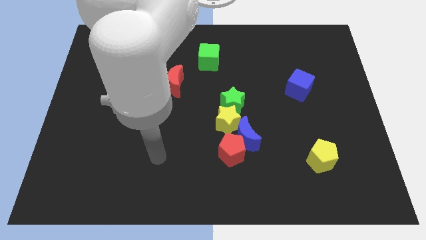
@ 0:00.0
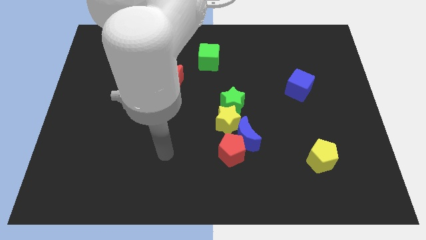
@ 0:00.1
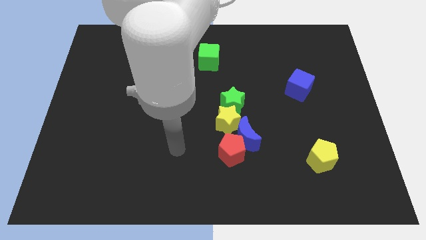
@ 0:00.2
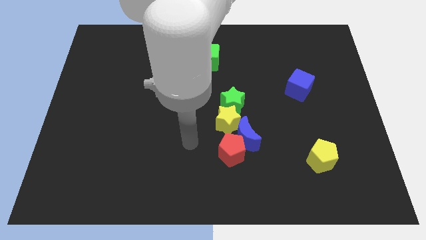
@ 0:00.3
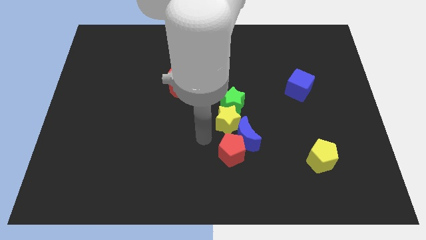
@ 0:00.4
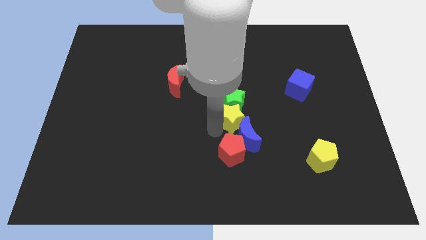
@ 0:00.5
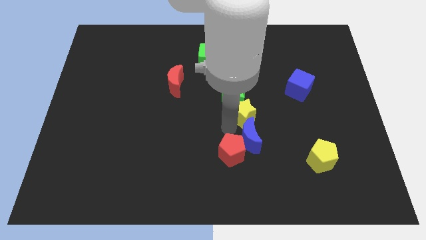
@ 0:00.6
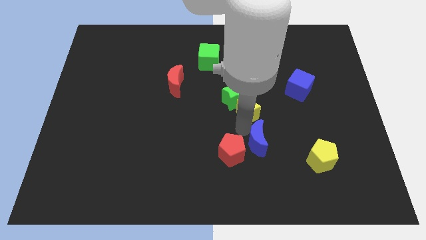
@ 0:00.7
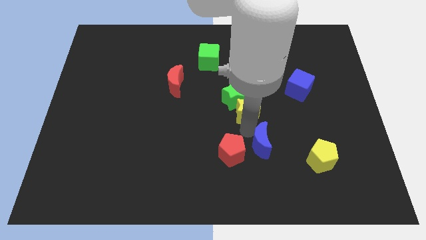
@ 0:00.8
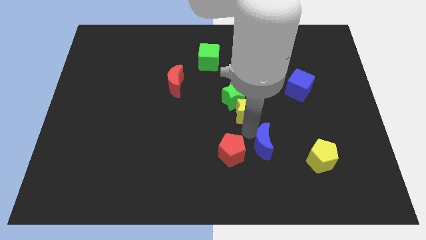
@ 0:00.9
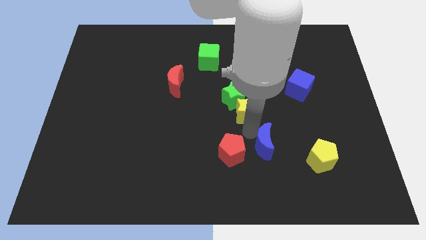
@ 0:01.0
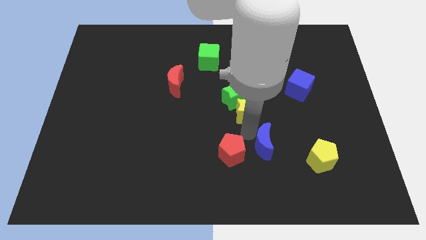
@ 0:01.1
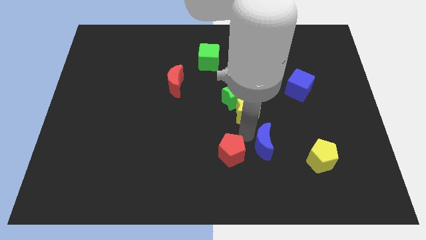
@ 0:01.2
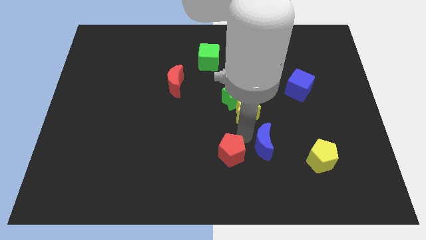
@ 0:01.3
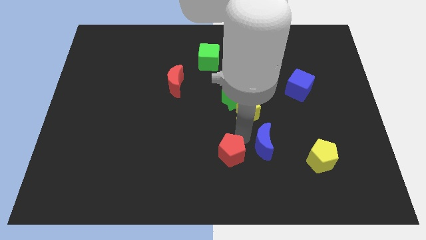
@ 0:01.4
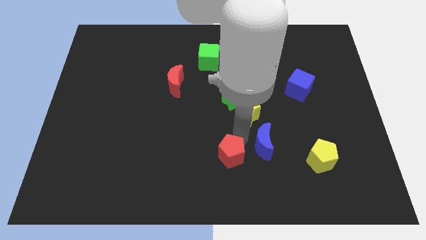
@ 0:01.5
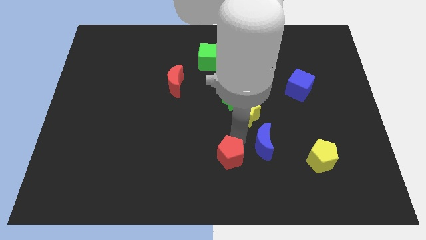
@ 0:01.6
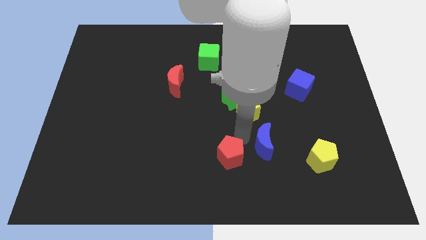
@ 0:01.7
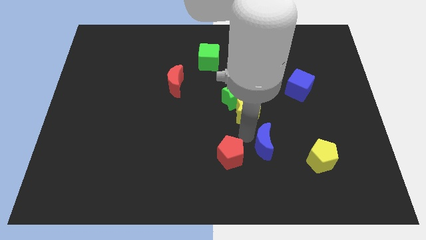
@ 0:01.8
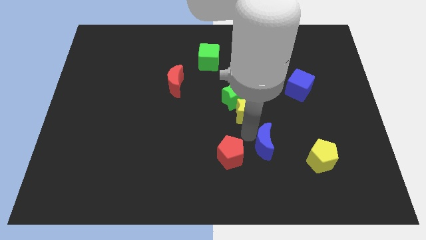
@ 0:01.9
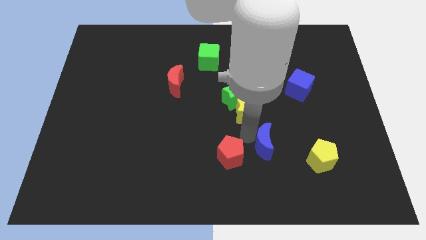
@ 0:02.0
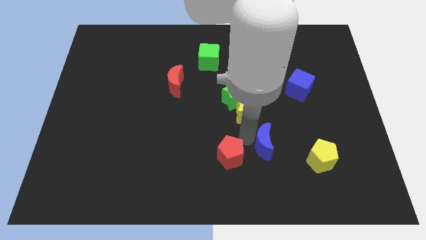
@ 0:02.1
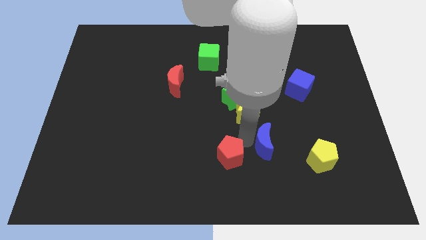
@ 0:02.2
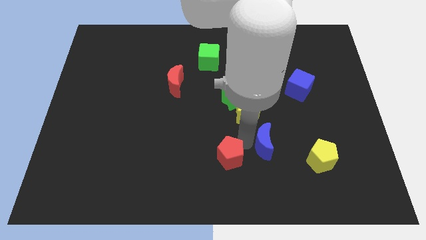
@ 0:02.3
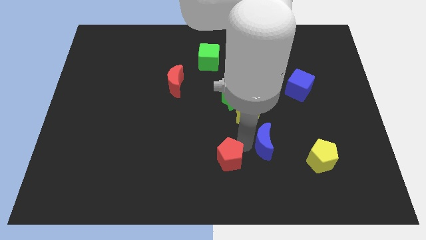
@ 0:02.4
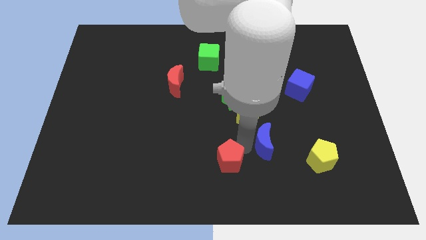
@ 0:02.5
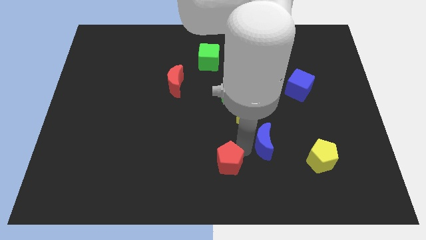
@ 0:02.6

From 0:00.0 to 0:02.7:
separate the red pentagon from the blue moon and yellow star

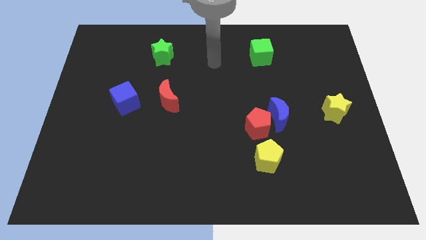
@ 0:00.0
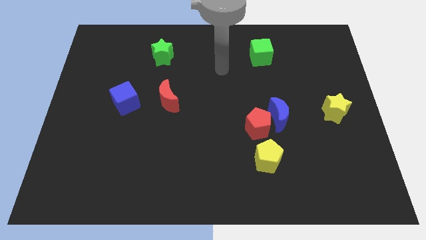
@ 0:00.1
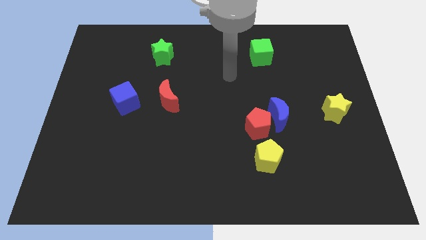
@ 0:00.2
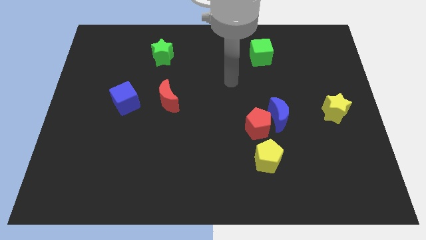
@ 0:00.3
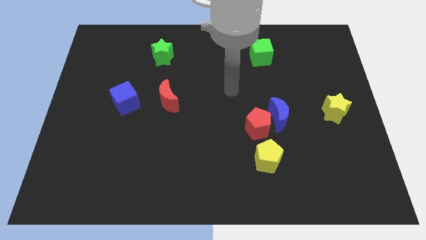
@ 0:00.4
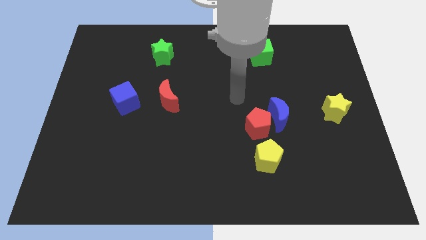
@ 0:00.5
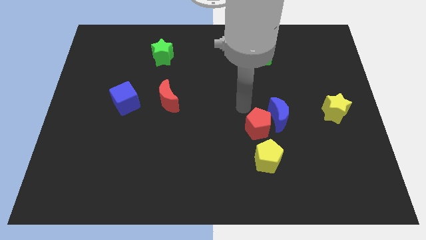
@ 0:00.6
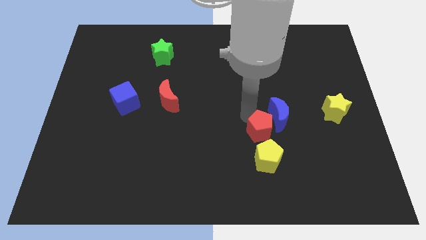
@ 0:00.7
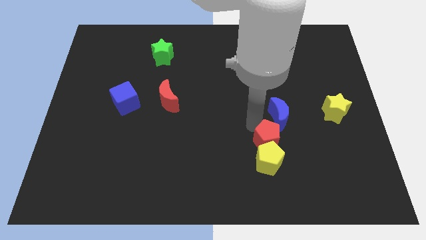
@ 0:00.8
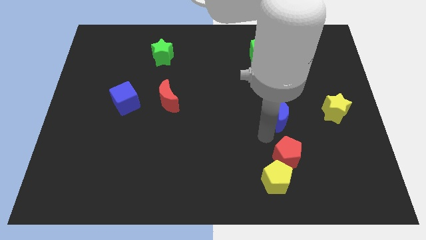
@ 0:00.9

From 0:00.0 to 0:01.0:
separate the blue moon from the red pentagon

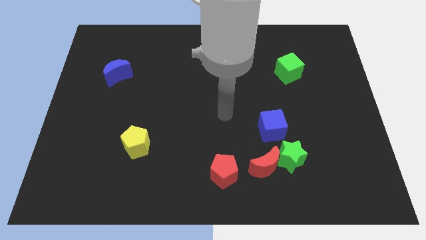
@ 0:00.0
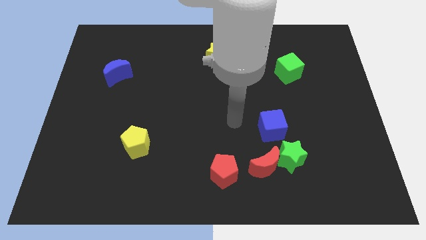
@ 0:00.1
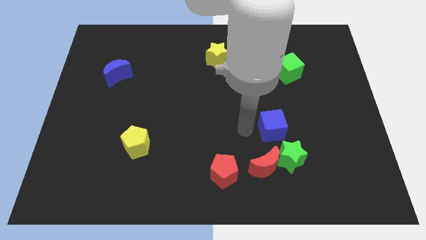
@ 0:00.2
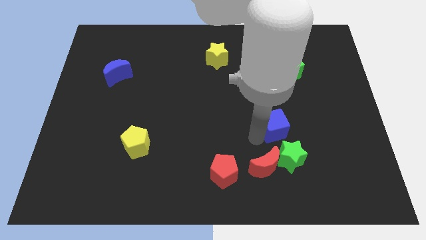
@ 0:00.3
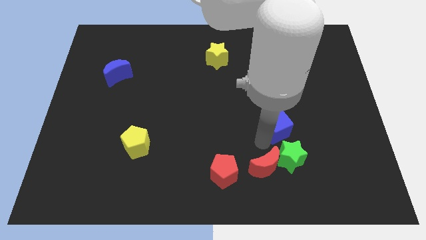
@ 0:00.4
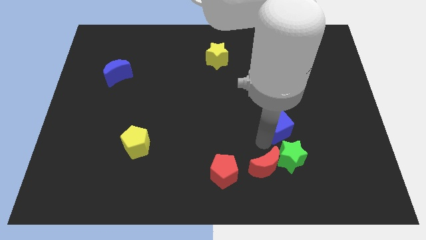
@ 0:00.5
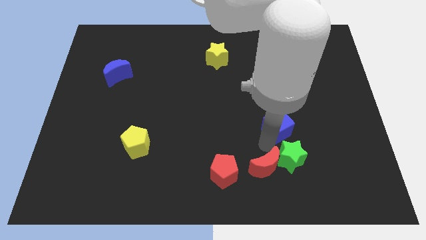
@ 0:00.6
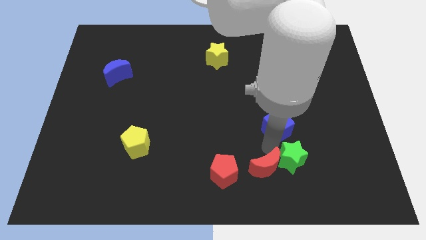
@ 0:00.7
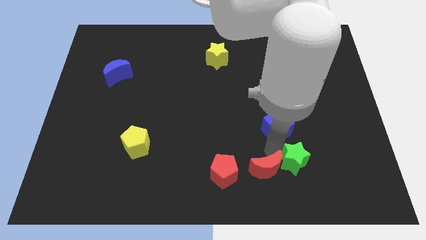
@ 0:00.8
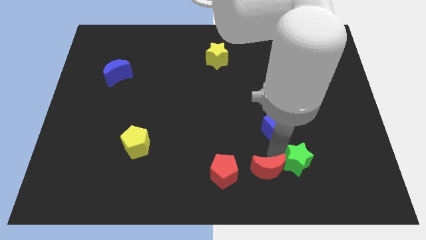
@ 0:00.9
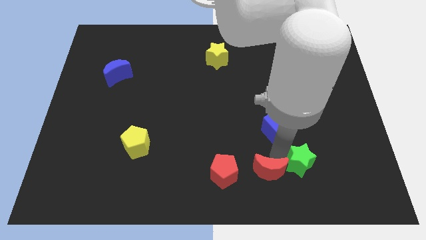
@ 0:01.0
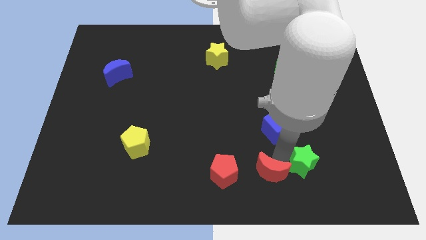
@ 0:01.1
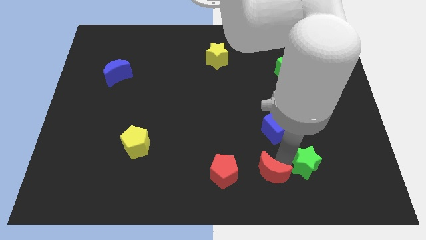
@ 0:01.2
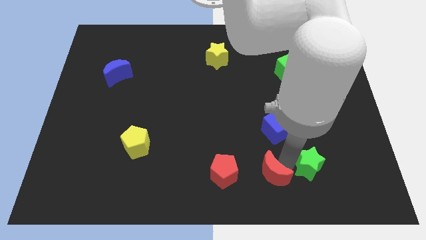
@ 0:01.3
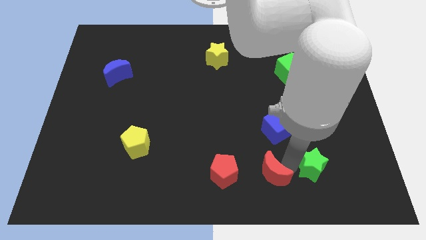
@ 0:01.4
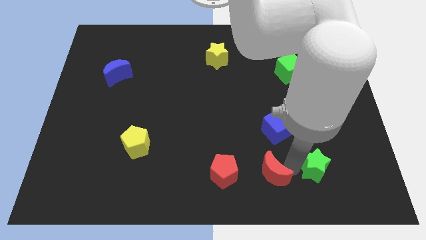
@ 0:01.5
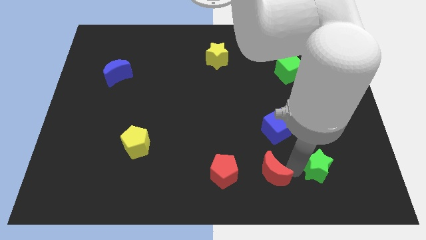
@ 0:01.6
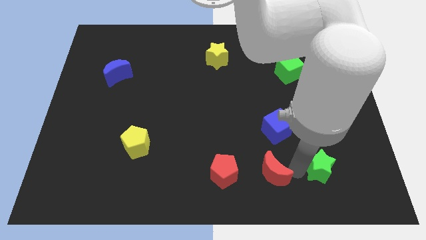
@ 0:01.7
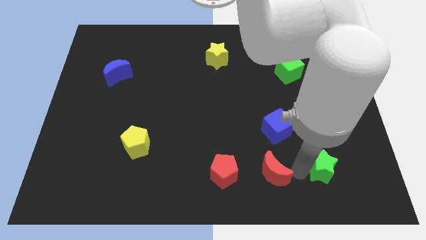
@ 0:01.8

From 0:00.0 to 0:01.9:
separate the green star from the red moon and blue cube

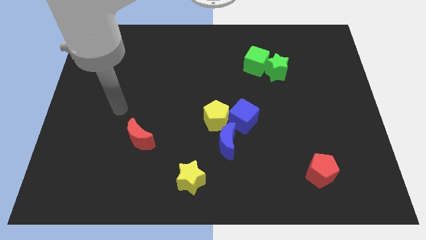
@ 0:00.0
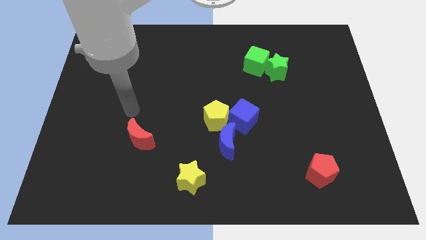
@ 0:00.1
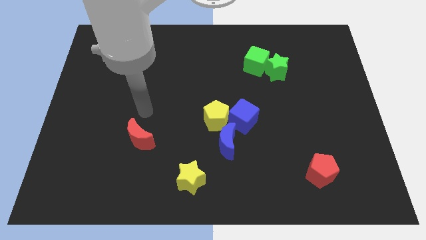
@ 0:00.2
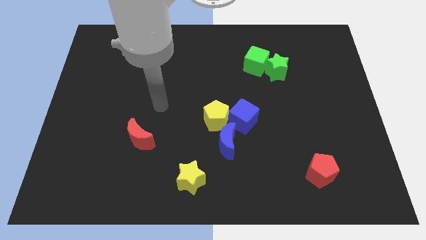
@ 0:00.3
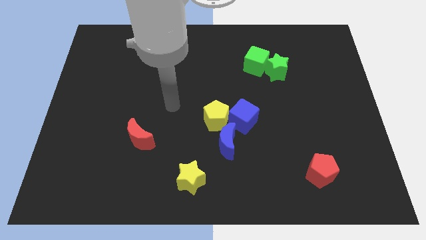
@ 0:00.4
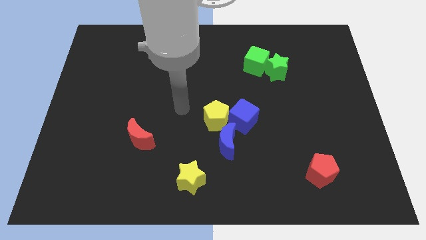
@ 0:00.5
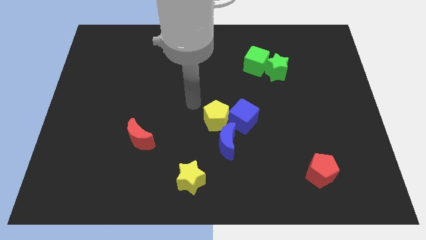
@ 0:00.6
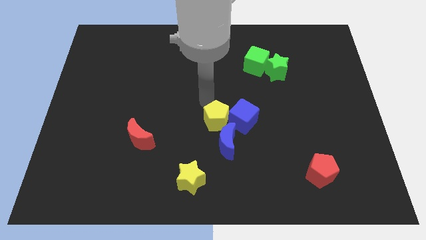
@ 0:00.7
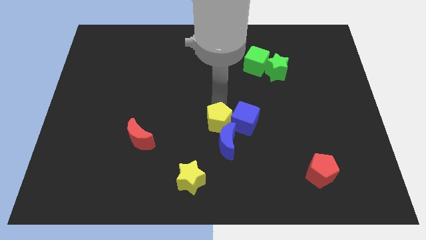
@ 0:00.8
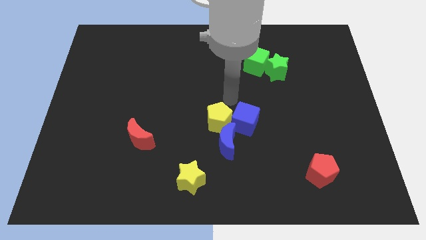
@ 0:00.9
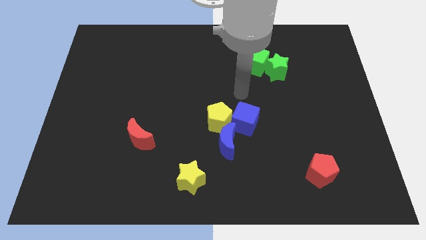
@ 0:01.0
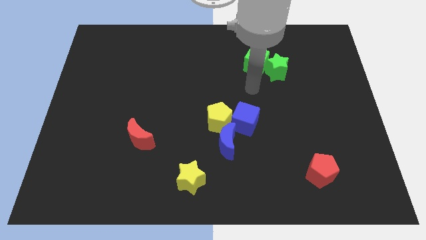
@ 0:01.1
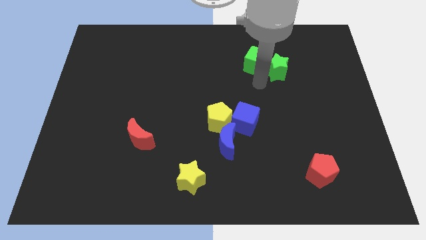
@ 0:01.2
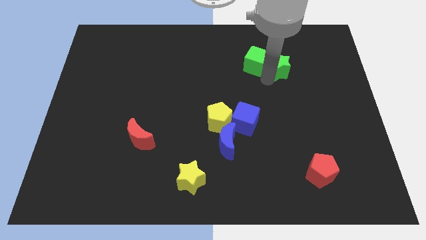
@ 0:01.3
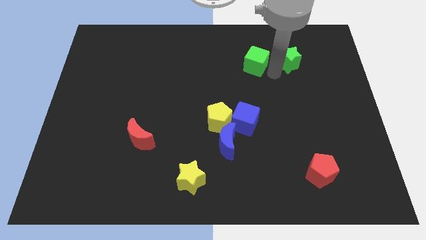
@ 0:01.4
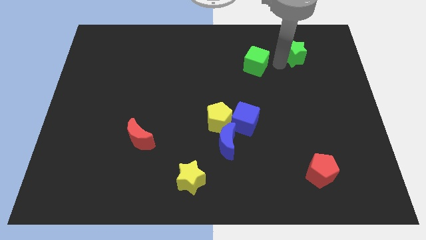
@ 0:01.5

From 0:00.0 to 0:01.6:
separate the green cube from the green star

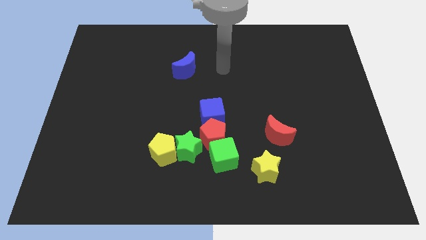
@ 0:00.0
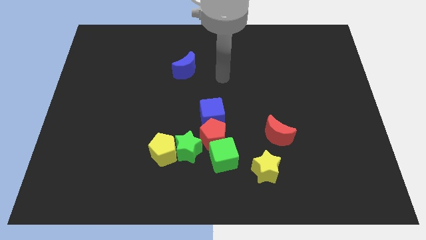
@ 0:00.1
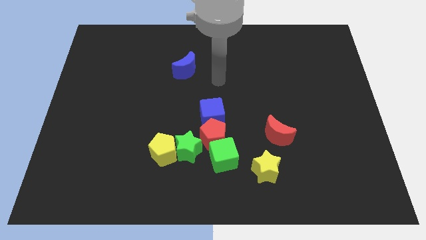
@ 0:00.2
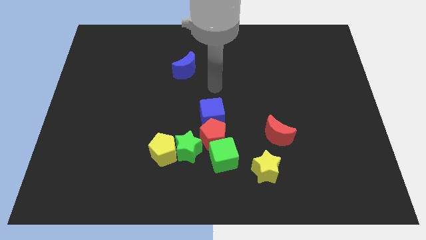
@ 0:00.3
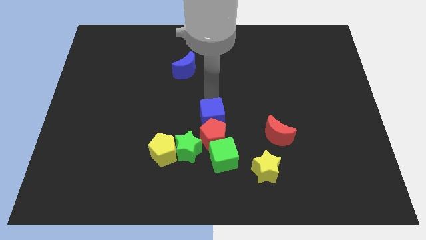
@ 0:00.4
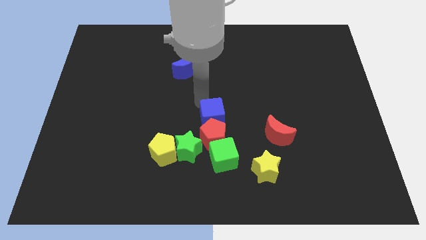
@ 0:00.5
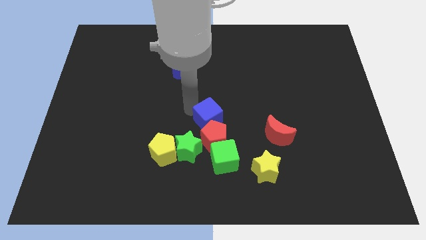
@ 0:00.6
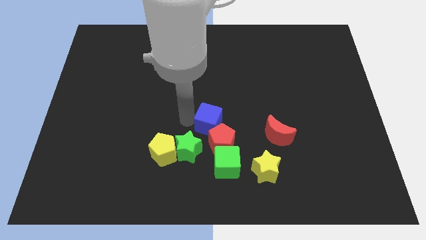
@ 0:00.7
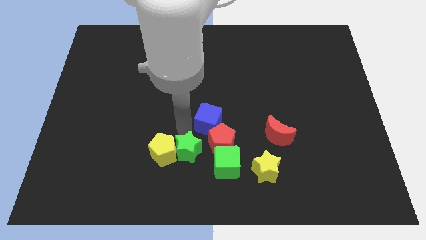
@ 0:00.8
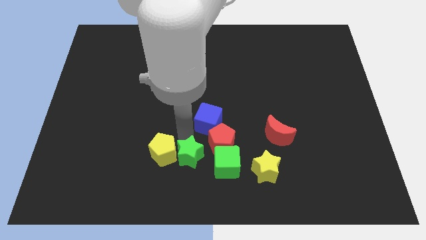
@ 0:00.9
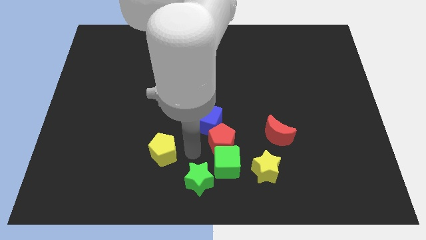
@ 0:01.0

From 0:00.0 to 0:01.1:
move the yellow pentagon away from the green star

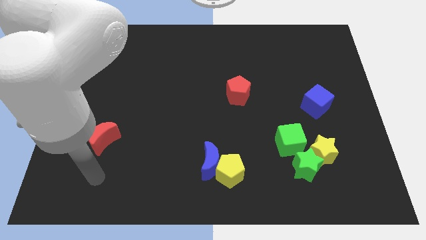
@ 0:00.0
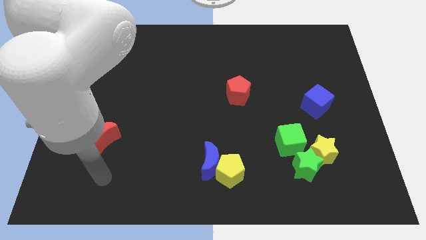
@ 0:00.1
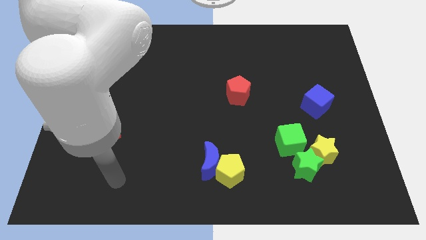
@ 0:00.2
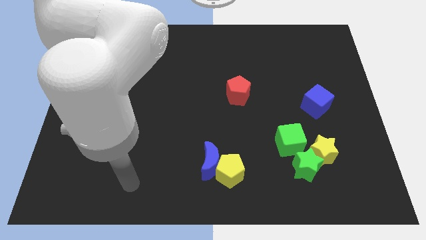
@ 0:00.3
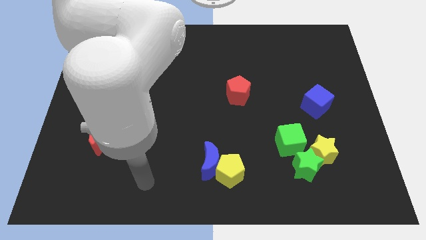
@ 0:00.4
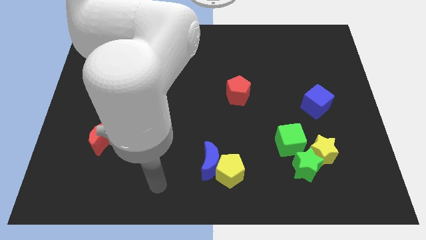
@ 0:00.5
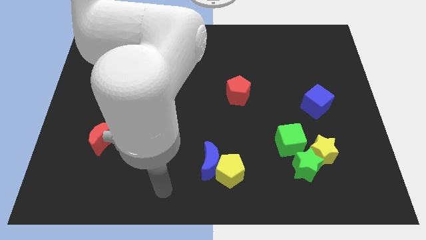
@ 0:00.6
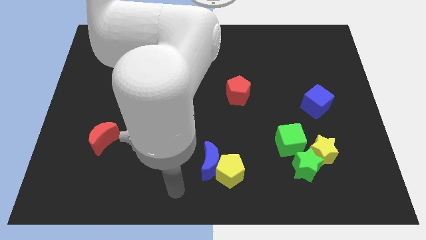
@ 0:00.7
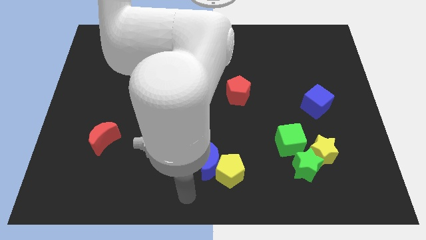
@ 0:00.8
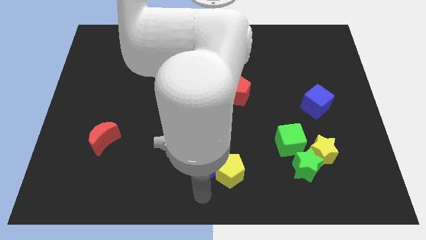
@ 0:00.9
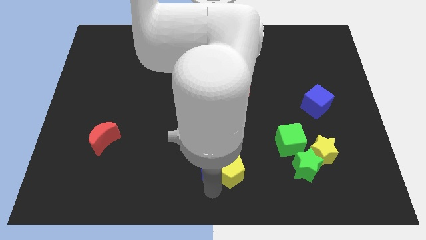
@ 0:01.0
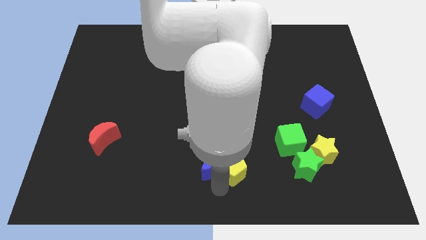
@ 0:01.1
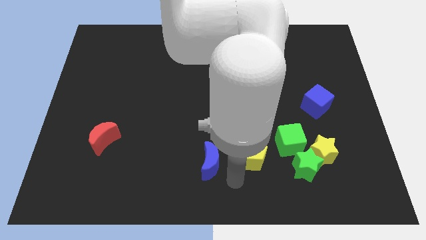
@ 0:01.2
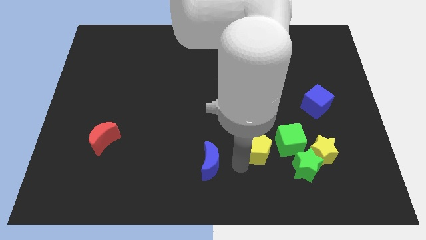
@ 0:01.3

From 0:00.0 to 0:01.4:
separate the blue moon from the yellow pentagon
